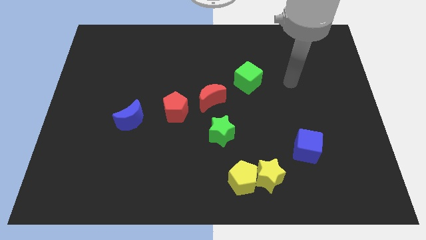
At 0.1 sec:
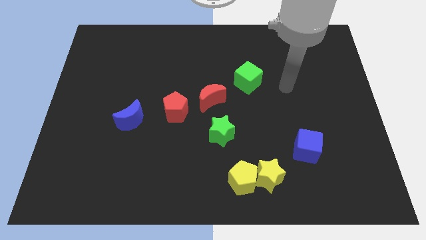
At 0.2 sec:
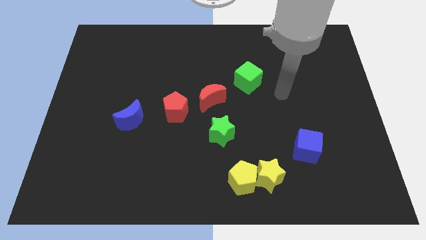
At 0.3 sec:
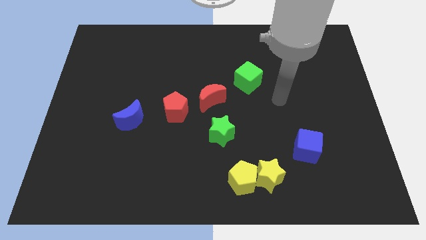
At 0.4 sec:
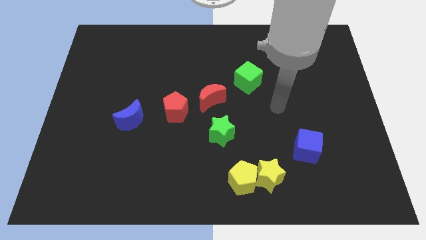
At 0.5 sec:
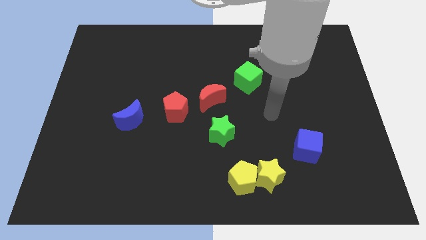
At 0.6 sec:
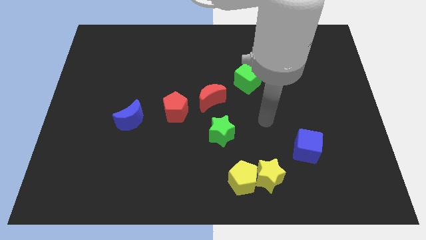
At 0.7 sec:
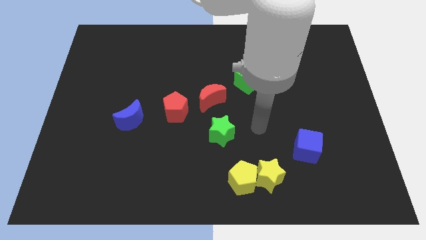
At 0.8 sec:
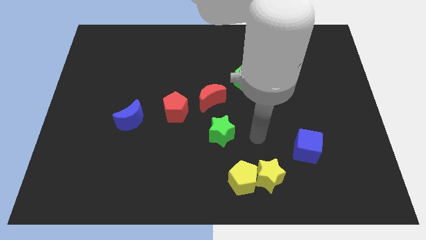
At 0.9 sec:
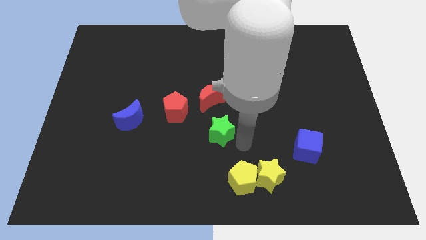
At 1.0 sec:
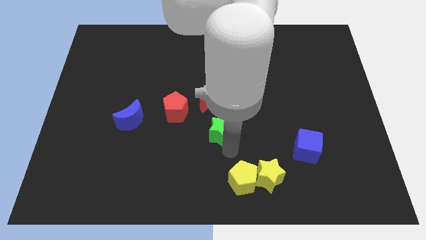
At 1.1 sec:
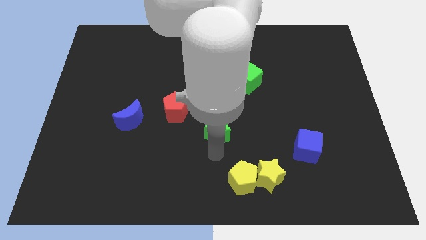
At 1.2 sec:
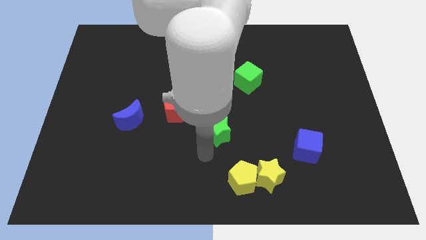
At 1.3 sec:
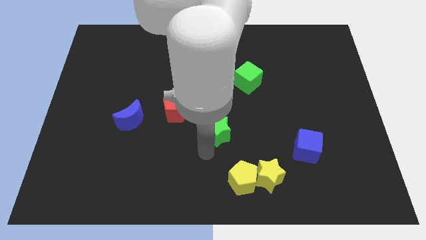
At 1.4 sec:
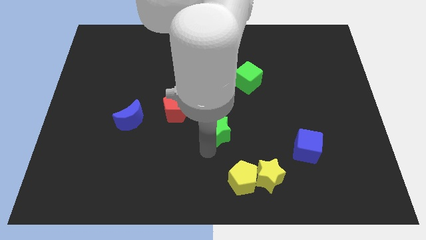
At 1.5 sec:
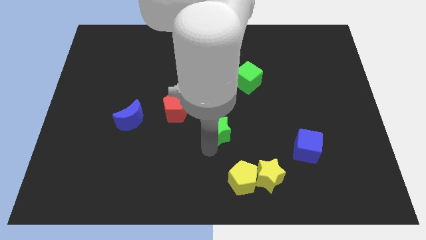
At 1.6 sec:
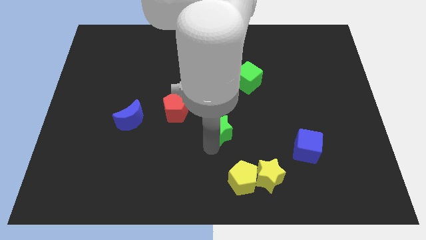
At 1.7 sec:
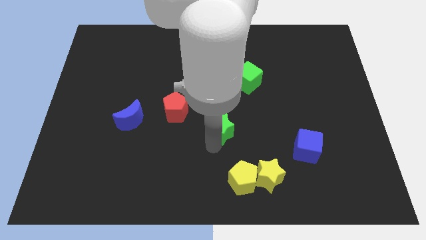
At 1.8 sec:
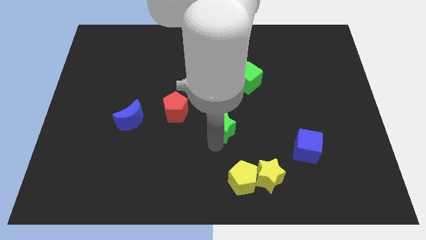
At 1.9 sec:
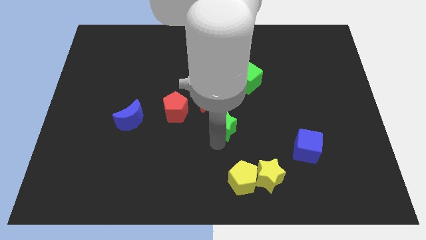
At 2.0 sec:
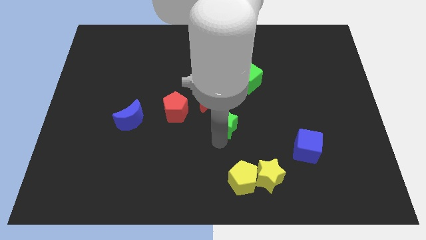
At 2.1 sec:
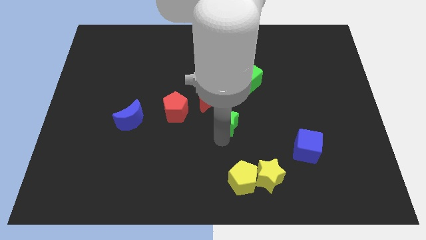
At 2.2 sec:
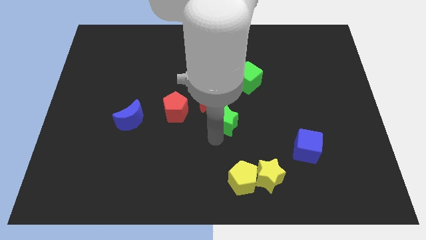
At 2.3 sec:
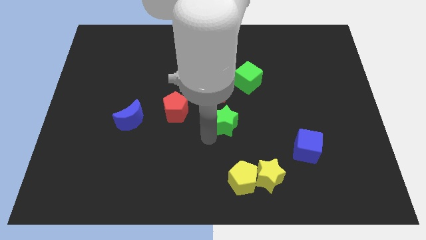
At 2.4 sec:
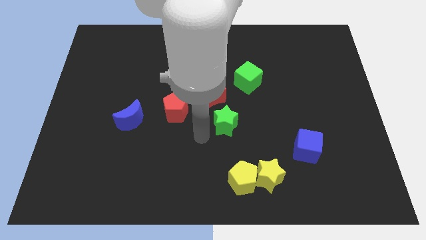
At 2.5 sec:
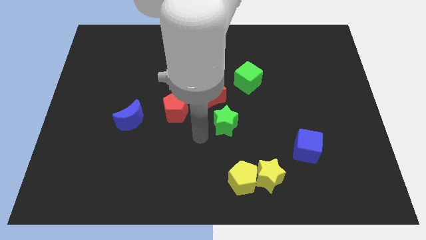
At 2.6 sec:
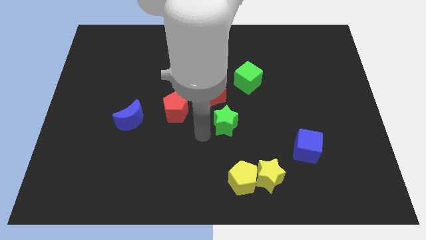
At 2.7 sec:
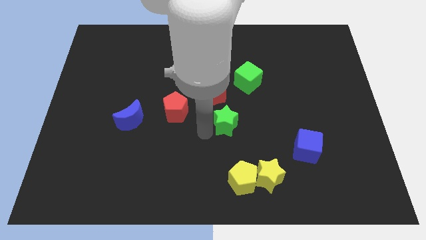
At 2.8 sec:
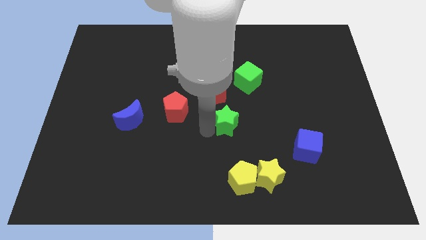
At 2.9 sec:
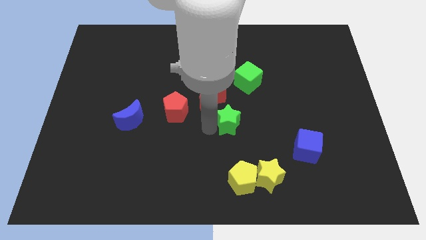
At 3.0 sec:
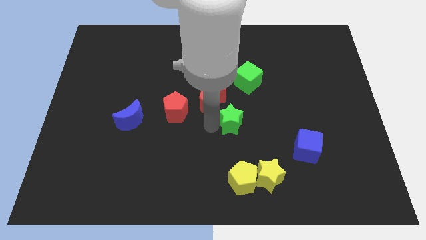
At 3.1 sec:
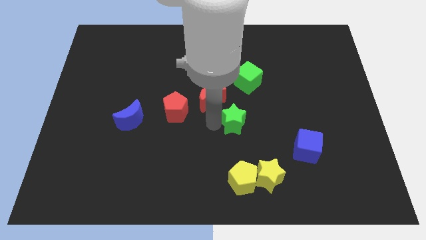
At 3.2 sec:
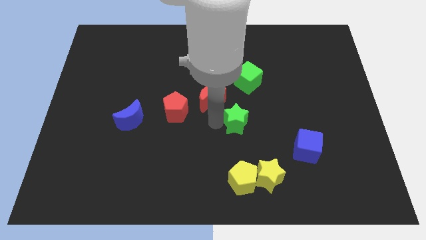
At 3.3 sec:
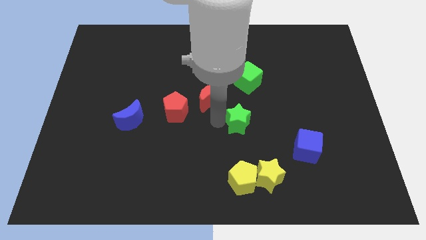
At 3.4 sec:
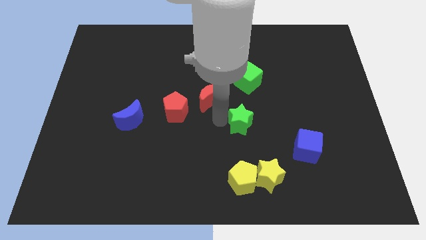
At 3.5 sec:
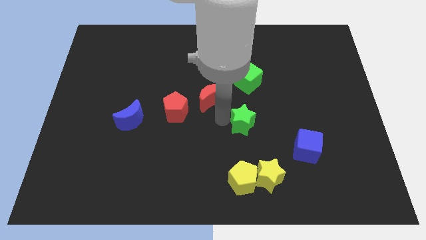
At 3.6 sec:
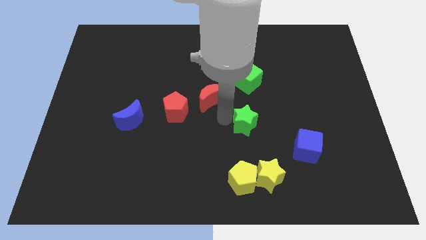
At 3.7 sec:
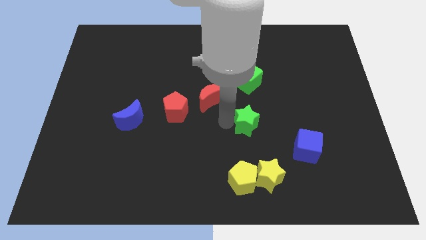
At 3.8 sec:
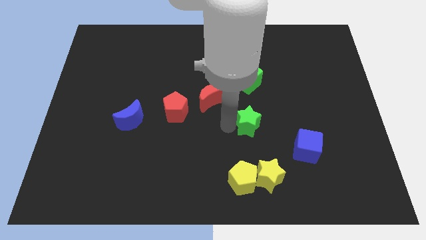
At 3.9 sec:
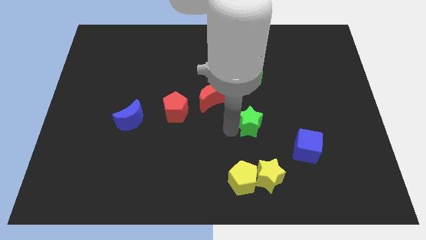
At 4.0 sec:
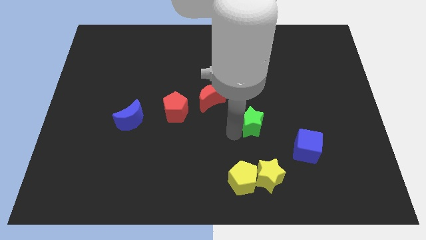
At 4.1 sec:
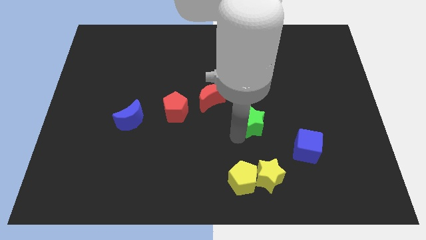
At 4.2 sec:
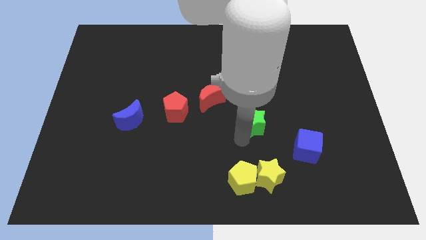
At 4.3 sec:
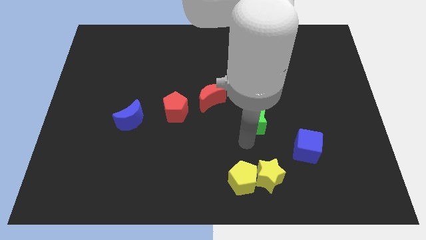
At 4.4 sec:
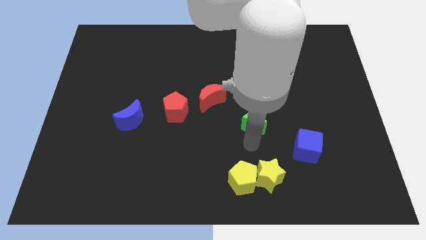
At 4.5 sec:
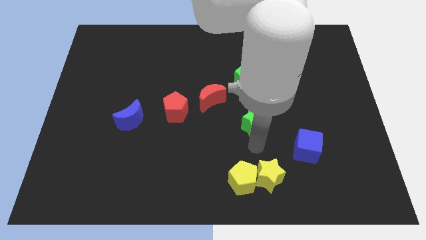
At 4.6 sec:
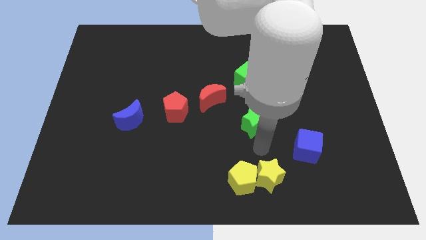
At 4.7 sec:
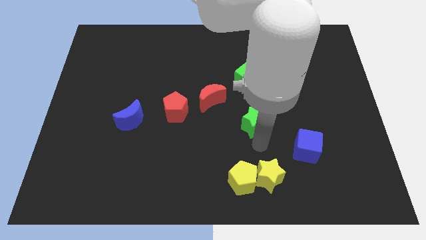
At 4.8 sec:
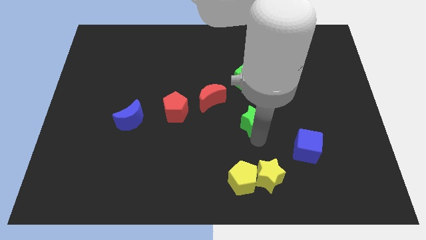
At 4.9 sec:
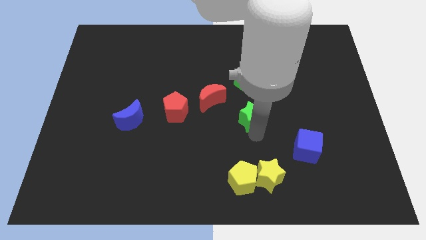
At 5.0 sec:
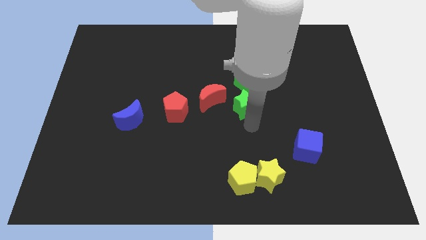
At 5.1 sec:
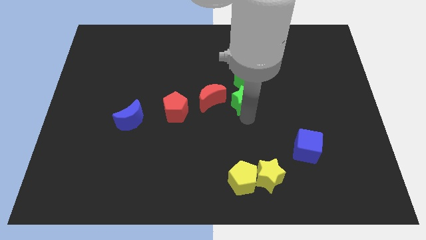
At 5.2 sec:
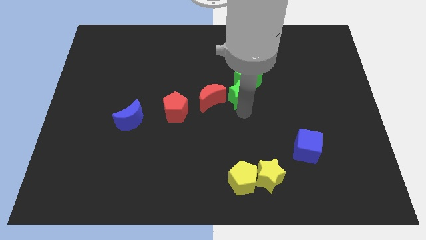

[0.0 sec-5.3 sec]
put the green star next to the green cube

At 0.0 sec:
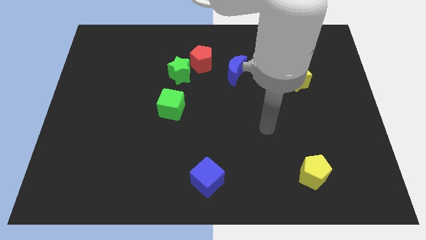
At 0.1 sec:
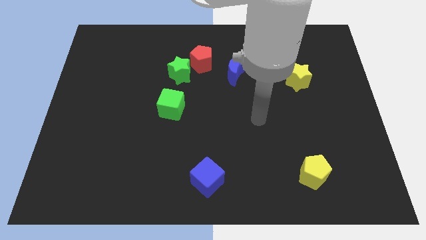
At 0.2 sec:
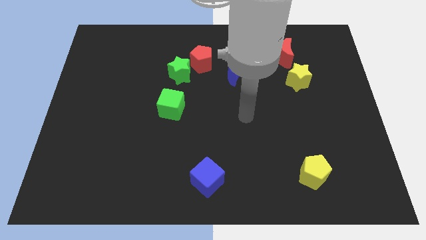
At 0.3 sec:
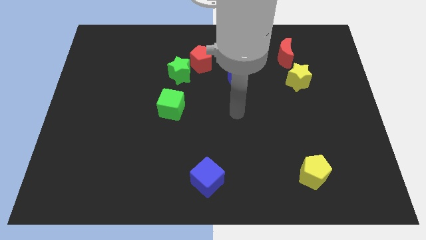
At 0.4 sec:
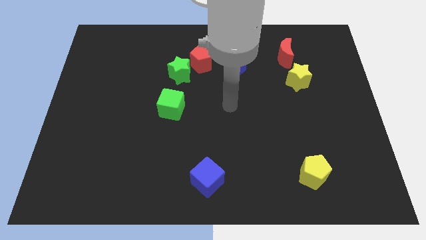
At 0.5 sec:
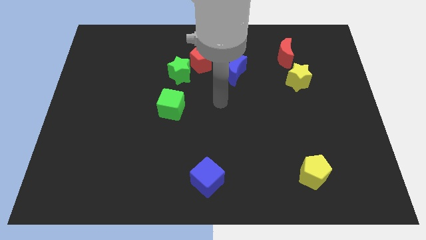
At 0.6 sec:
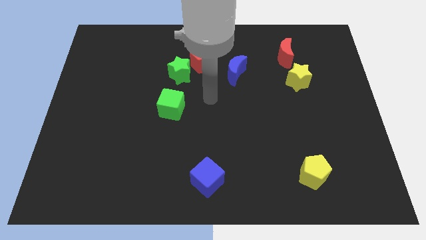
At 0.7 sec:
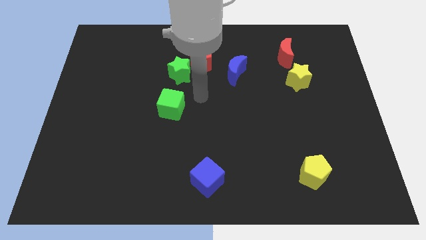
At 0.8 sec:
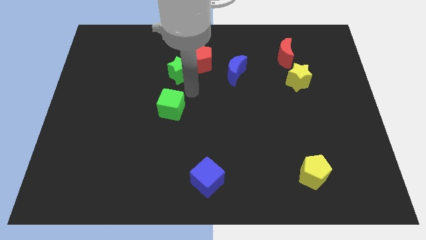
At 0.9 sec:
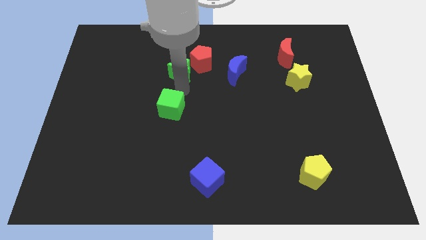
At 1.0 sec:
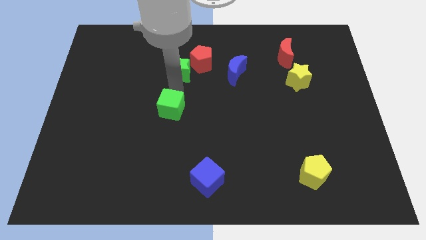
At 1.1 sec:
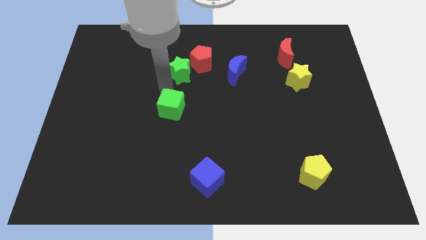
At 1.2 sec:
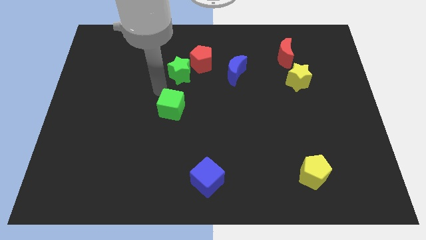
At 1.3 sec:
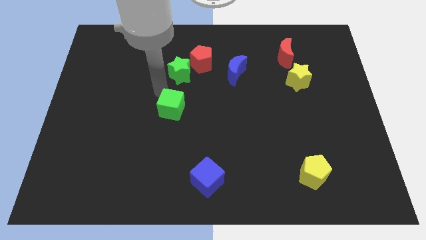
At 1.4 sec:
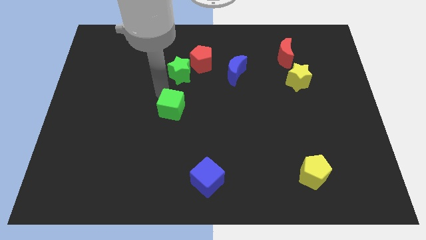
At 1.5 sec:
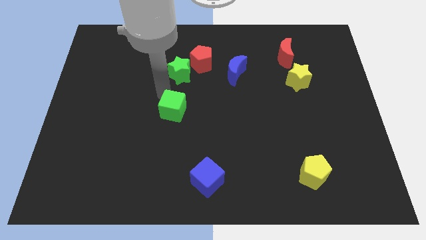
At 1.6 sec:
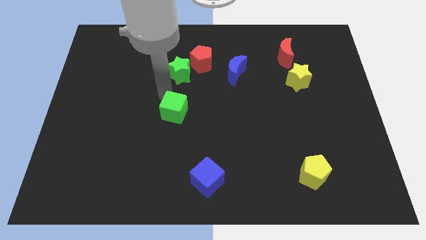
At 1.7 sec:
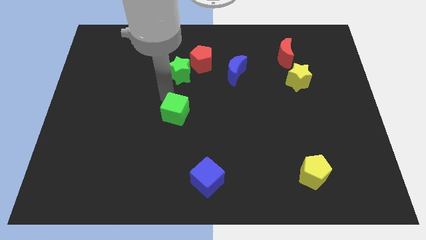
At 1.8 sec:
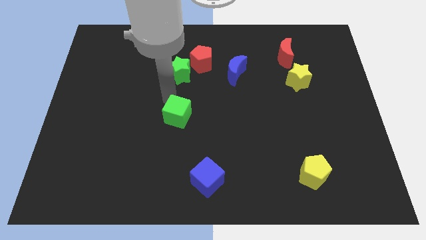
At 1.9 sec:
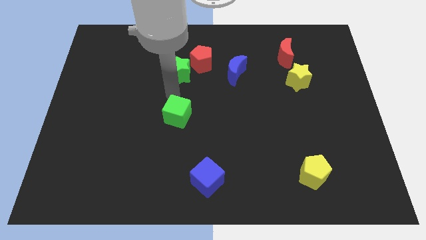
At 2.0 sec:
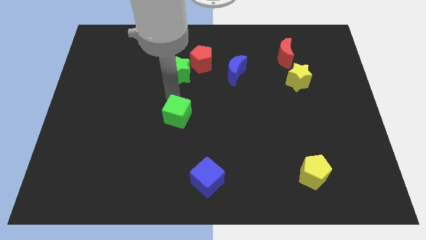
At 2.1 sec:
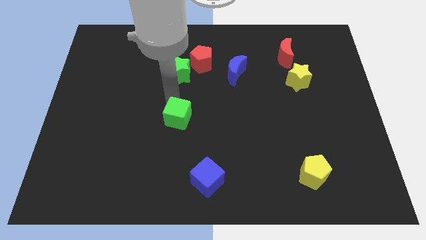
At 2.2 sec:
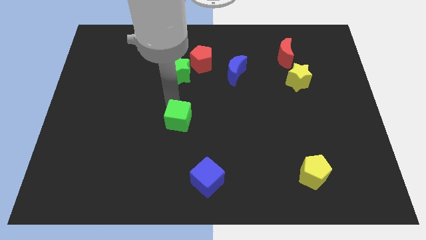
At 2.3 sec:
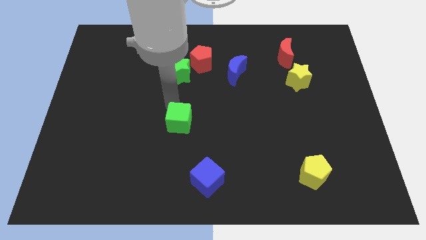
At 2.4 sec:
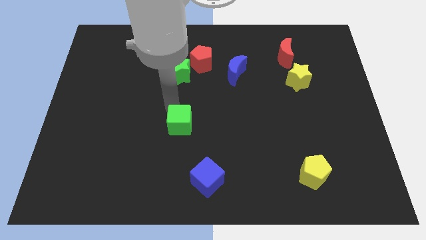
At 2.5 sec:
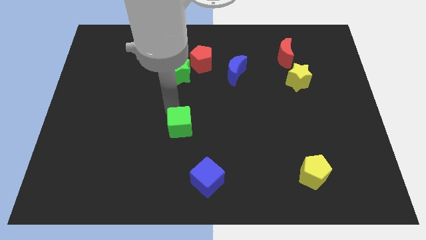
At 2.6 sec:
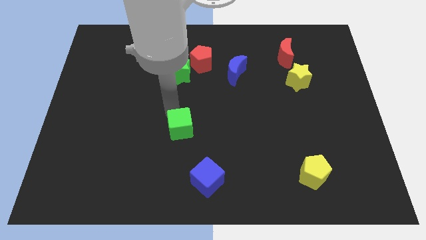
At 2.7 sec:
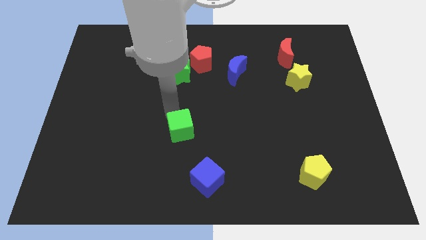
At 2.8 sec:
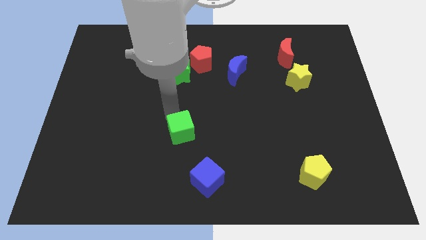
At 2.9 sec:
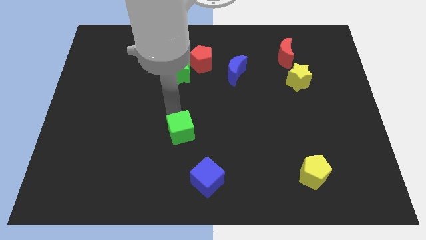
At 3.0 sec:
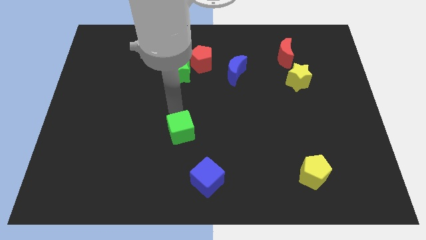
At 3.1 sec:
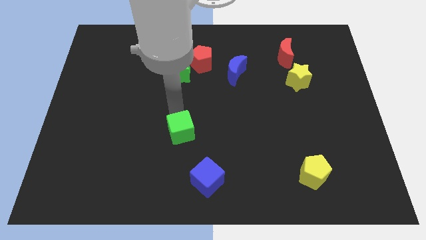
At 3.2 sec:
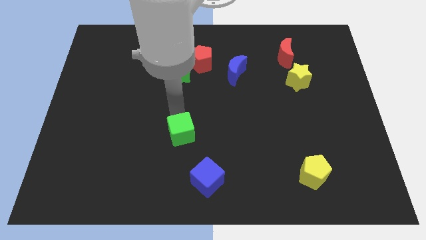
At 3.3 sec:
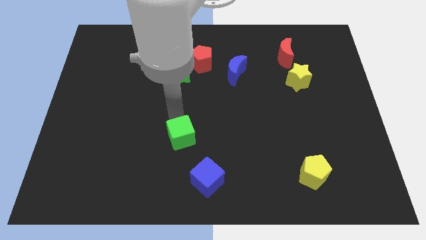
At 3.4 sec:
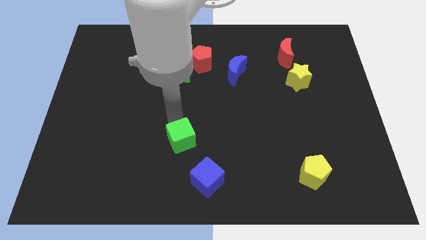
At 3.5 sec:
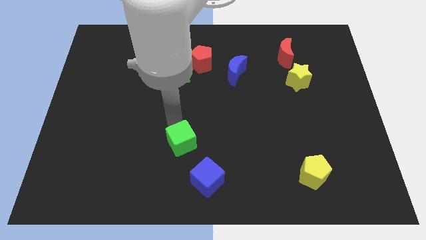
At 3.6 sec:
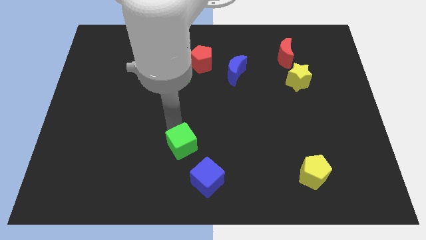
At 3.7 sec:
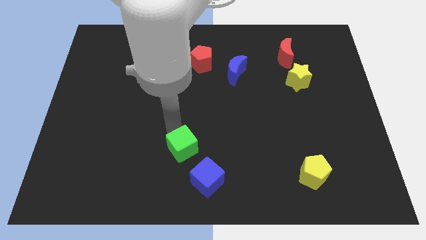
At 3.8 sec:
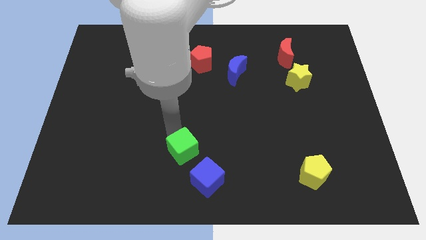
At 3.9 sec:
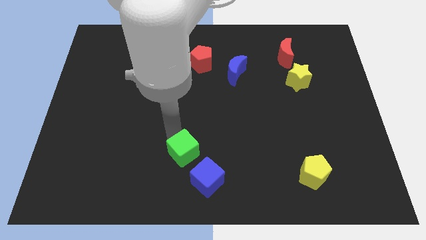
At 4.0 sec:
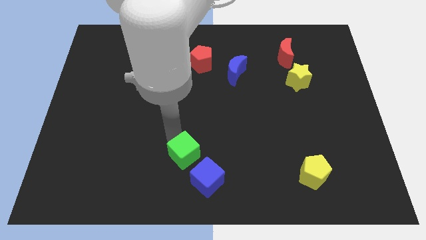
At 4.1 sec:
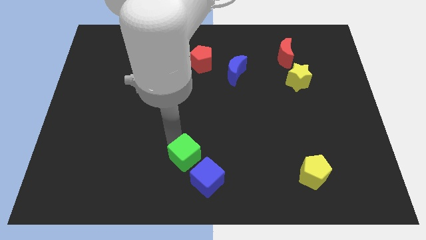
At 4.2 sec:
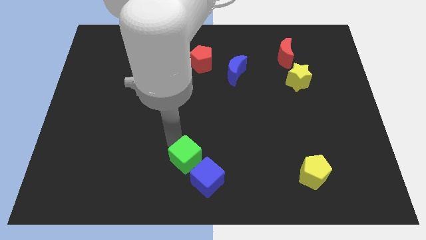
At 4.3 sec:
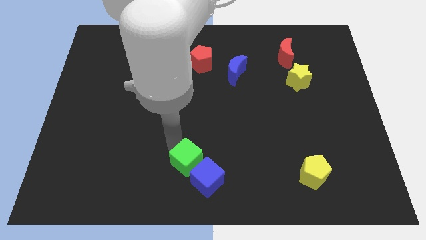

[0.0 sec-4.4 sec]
push the green cube close to the blue cube
